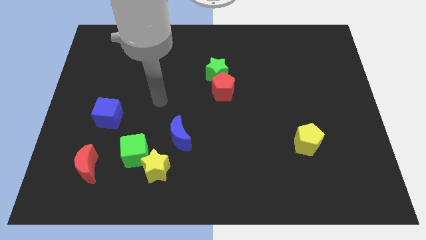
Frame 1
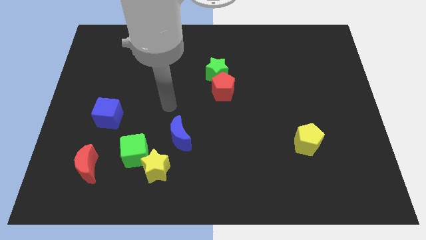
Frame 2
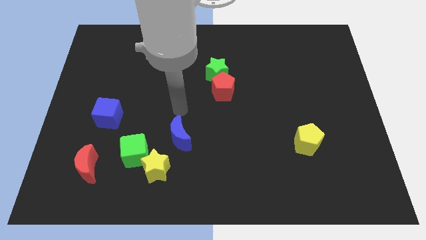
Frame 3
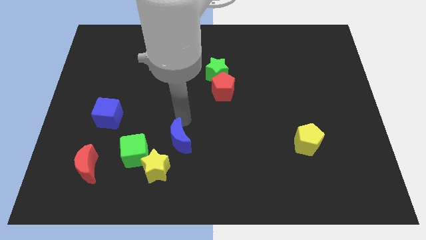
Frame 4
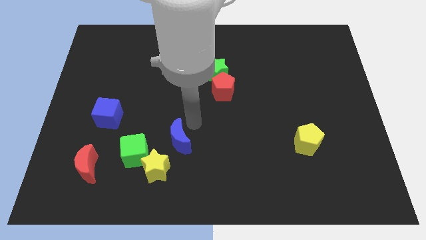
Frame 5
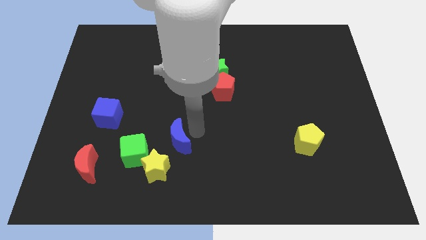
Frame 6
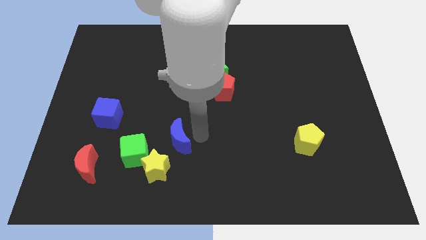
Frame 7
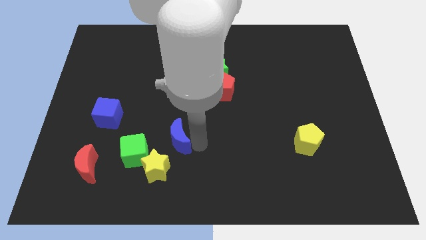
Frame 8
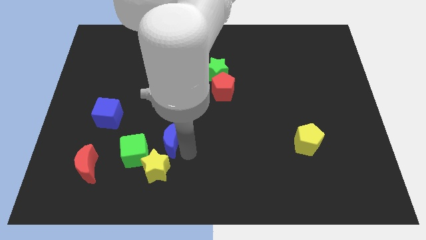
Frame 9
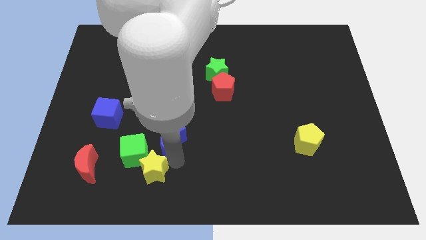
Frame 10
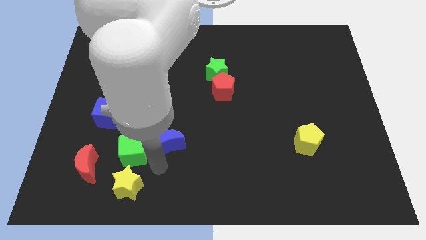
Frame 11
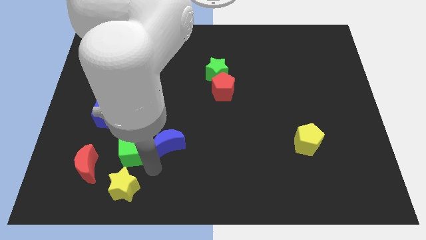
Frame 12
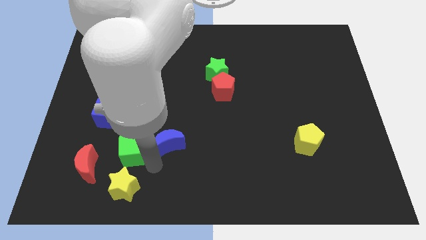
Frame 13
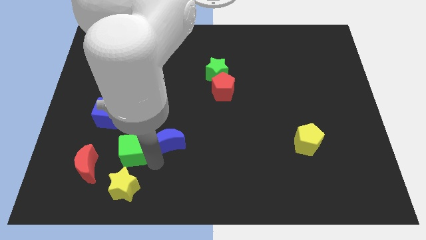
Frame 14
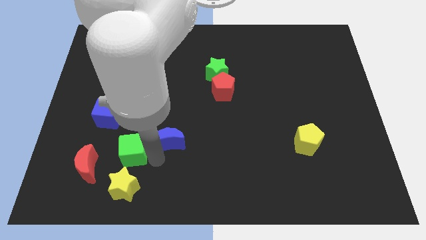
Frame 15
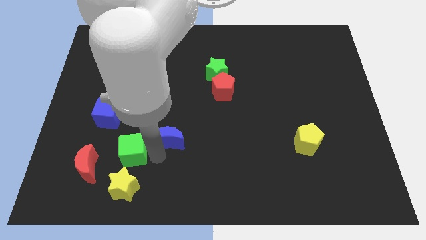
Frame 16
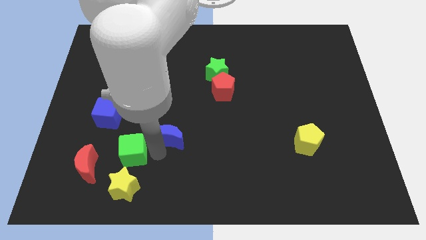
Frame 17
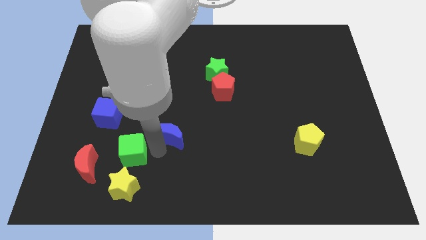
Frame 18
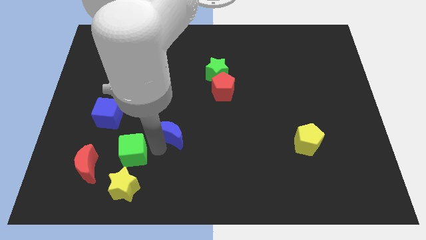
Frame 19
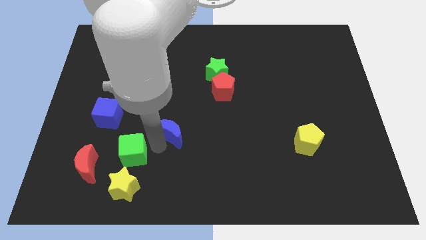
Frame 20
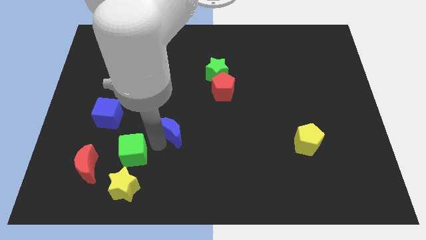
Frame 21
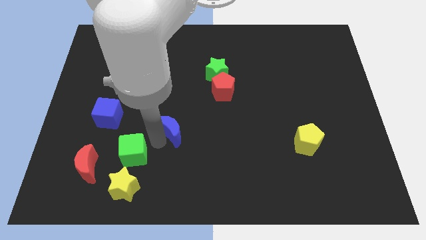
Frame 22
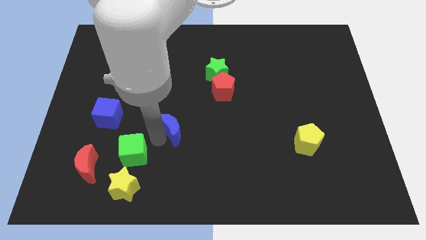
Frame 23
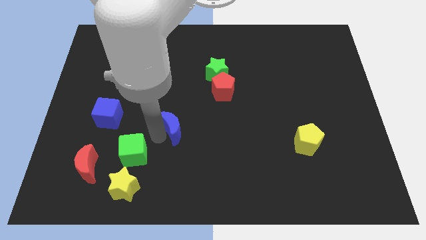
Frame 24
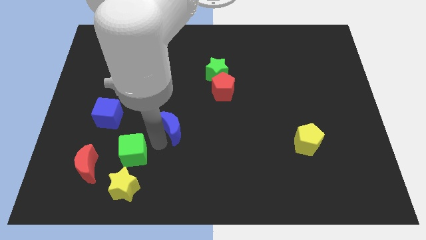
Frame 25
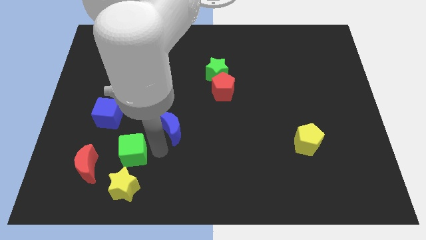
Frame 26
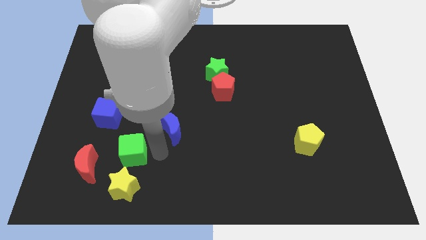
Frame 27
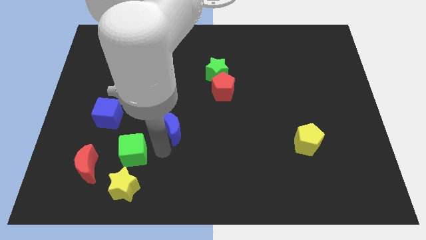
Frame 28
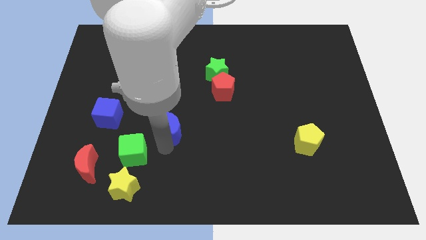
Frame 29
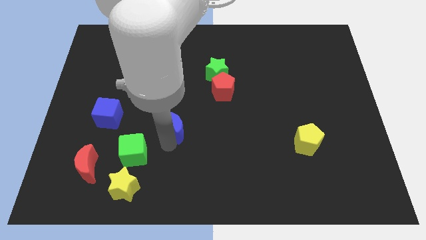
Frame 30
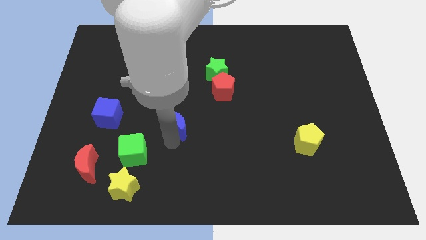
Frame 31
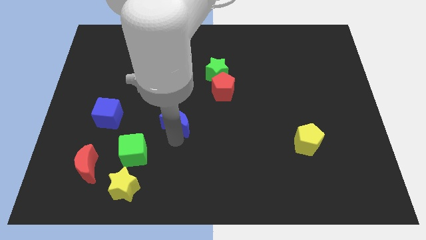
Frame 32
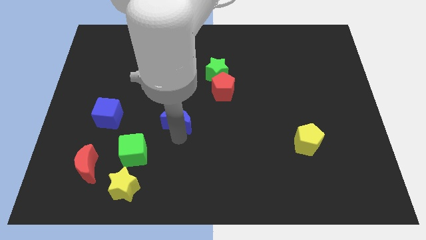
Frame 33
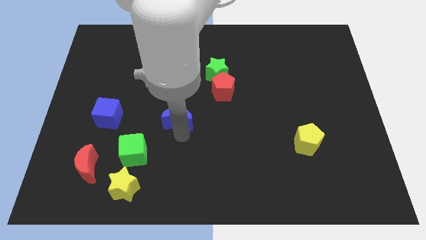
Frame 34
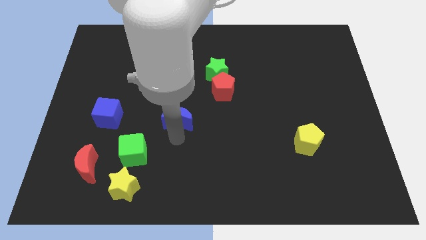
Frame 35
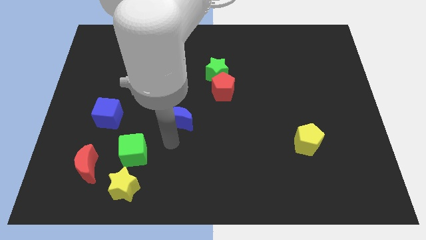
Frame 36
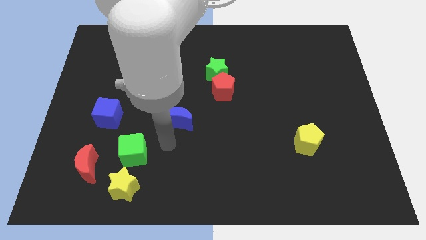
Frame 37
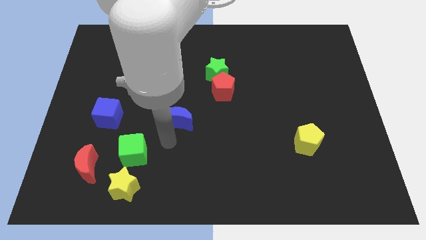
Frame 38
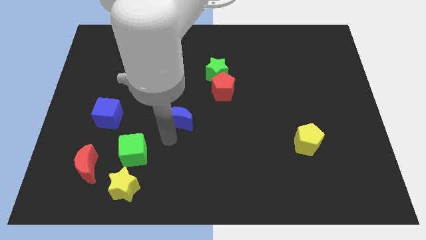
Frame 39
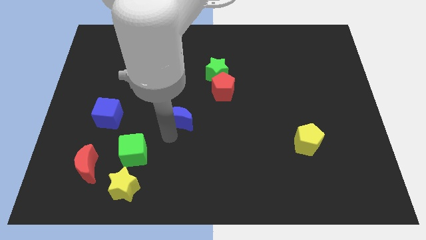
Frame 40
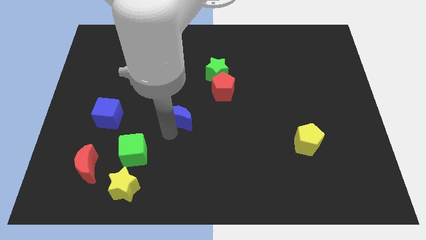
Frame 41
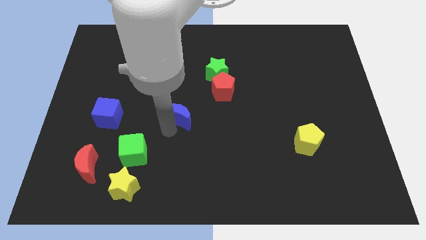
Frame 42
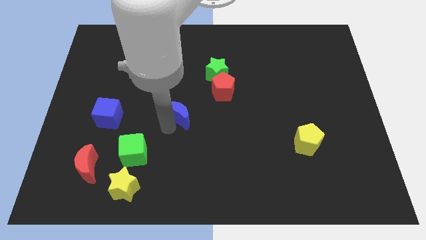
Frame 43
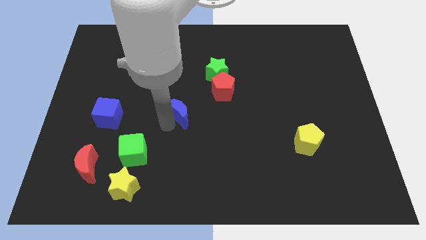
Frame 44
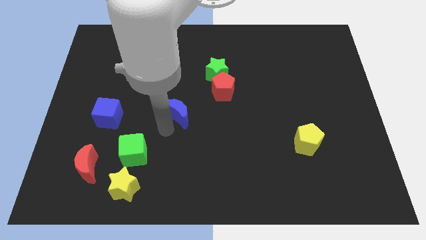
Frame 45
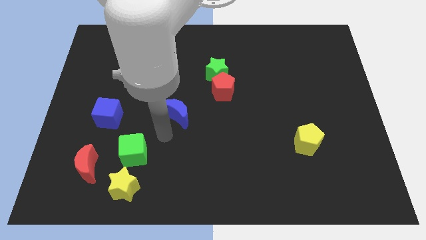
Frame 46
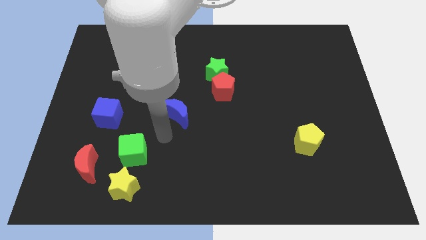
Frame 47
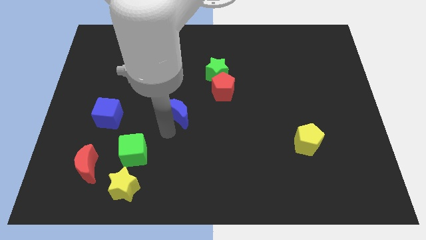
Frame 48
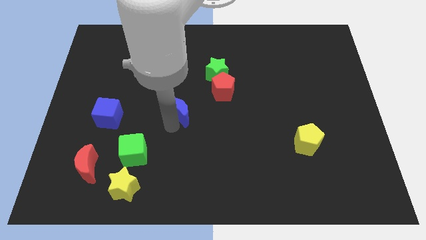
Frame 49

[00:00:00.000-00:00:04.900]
slightly move the blue moon upwards

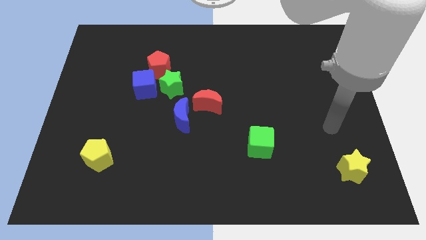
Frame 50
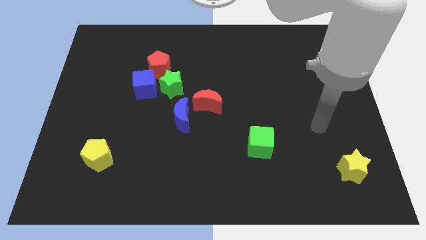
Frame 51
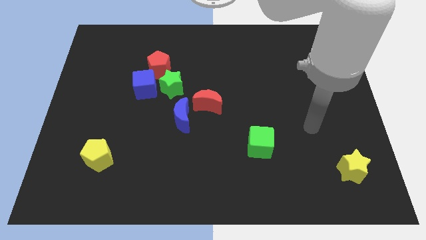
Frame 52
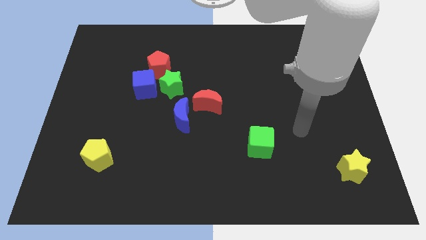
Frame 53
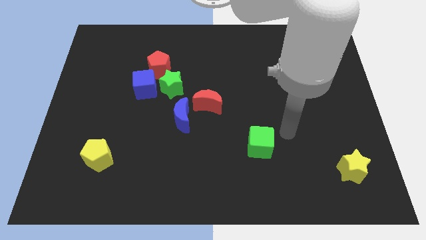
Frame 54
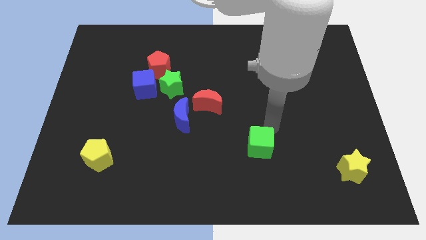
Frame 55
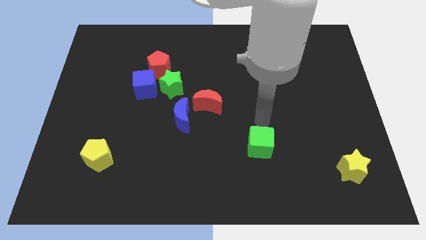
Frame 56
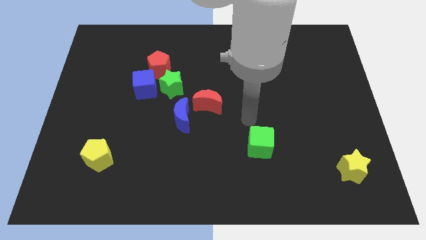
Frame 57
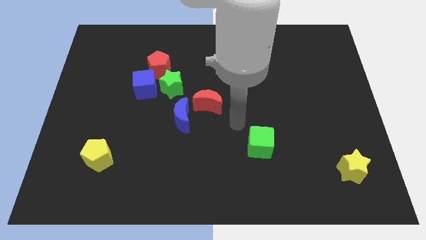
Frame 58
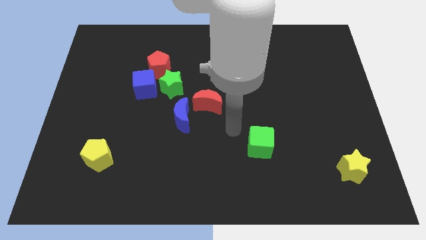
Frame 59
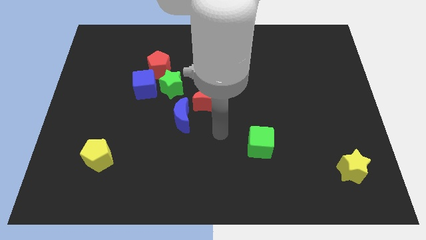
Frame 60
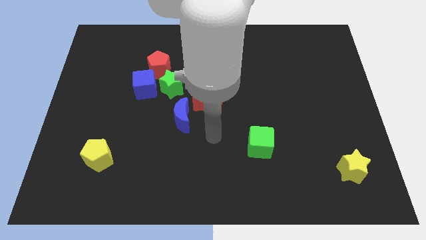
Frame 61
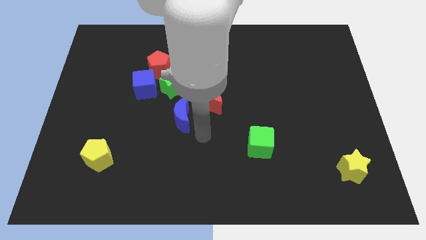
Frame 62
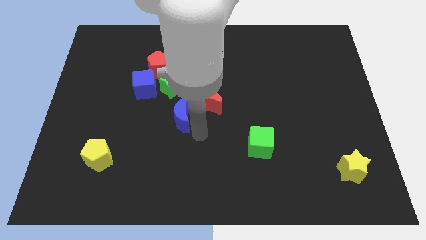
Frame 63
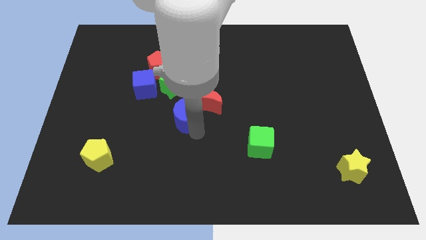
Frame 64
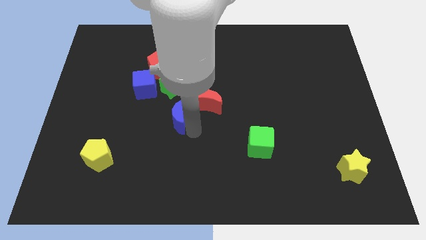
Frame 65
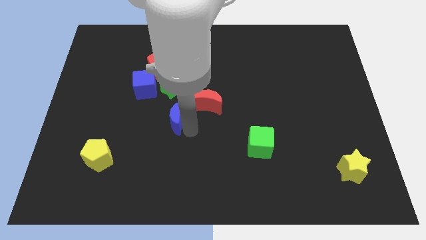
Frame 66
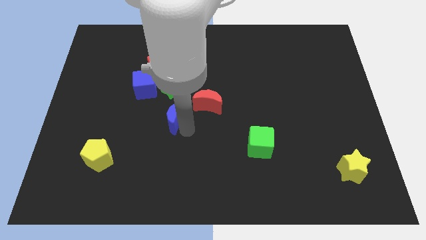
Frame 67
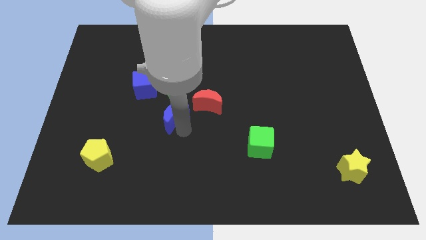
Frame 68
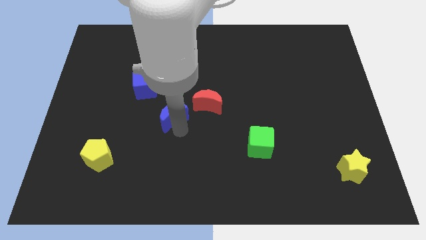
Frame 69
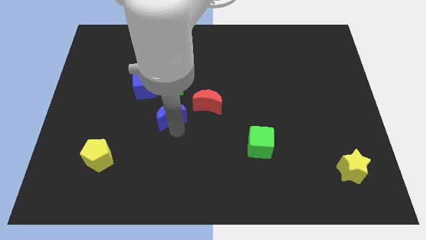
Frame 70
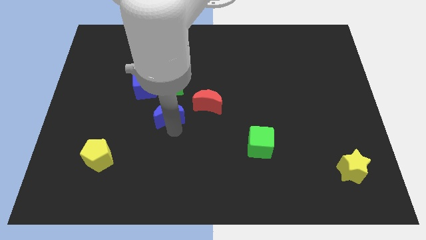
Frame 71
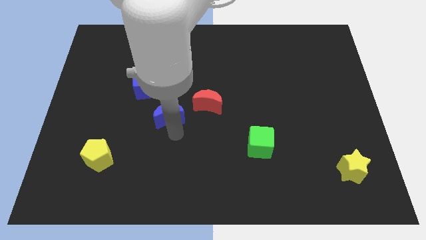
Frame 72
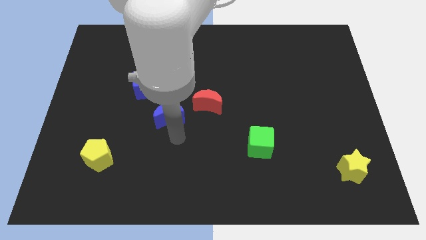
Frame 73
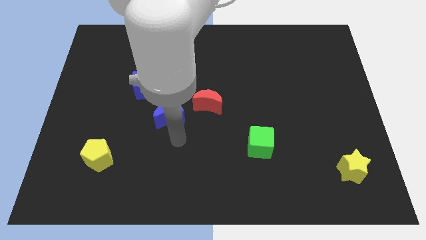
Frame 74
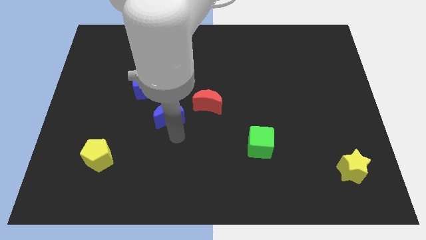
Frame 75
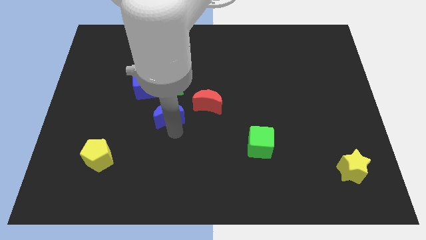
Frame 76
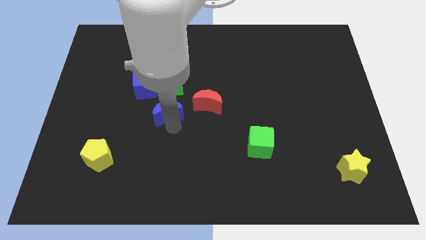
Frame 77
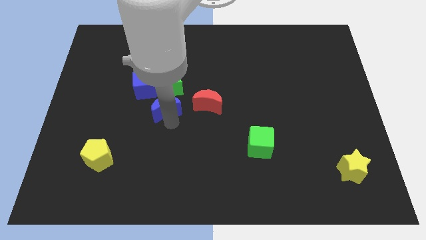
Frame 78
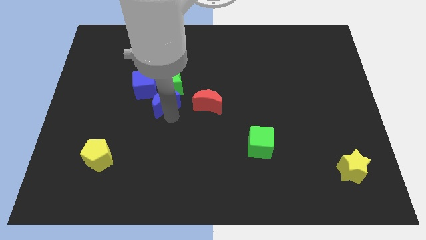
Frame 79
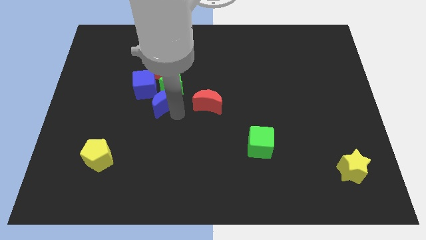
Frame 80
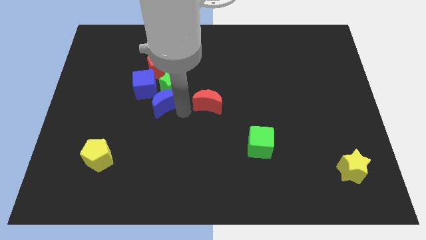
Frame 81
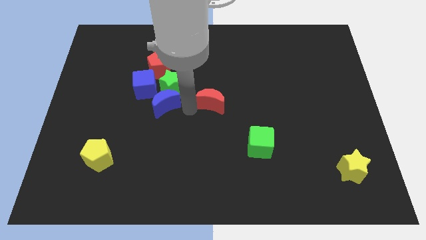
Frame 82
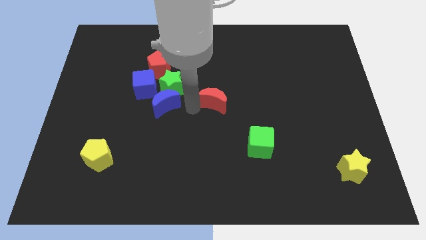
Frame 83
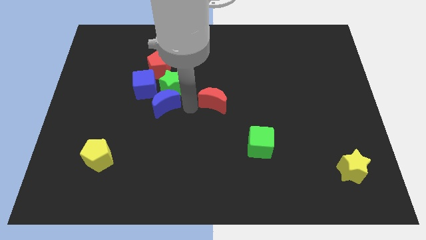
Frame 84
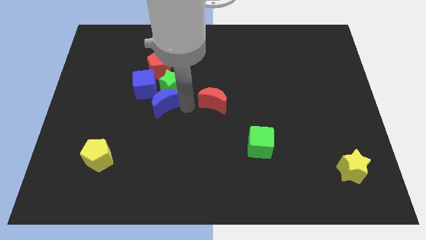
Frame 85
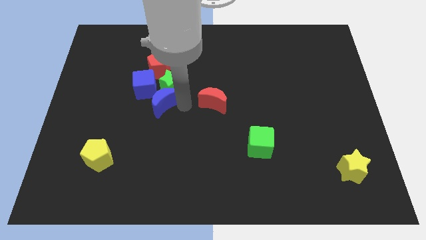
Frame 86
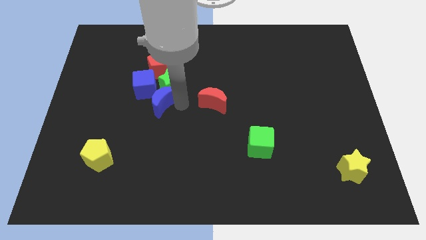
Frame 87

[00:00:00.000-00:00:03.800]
push the blue moon somewhat upwards and then to the left
